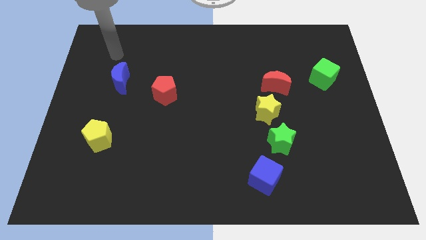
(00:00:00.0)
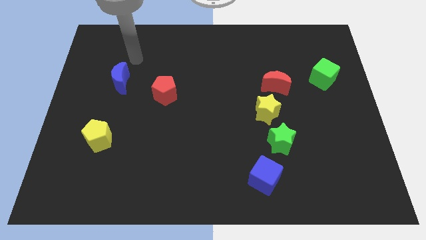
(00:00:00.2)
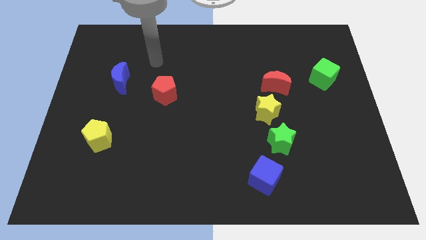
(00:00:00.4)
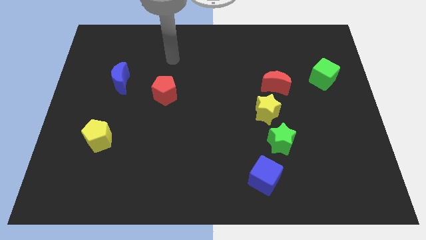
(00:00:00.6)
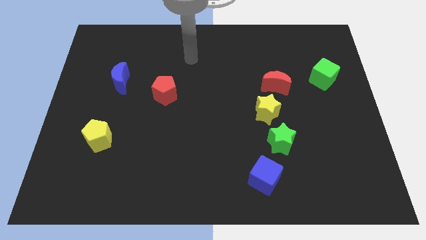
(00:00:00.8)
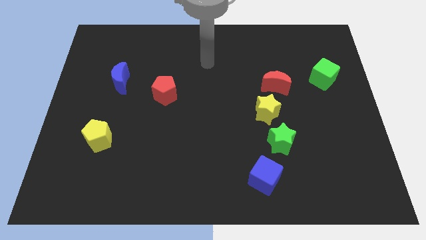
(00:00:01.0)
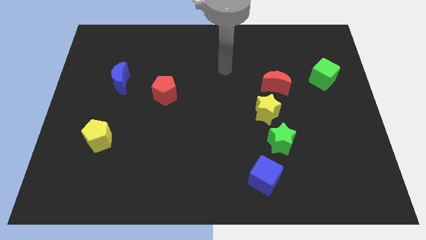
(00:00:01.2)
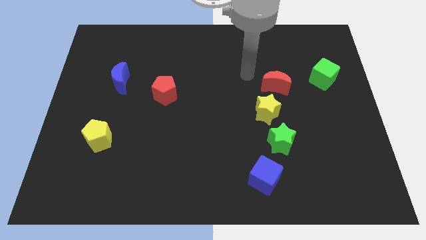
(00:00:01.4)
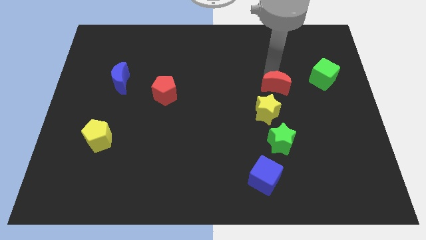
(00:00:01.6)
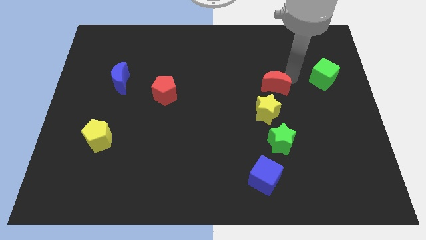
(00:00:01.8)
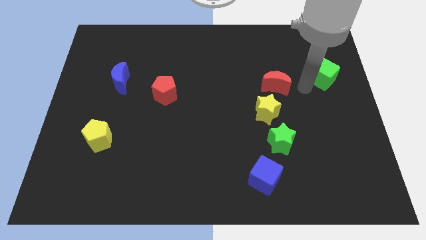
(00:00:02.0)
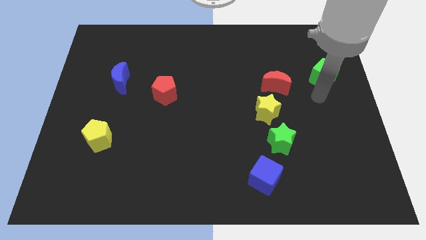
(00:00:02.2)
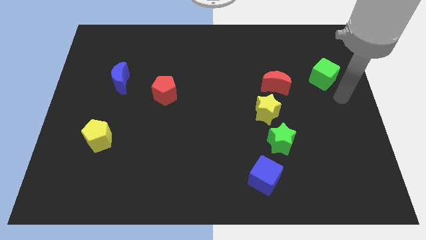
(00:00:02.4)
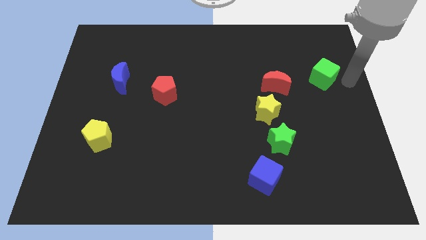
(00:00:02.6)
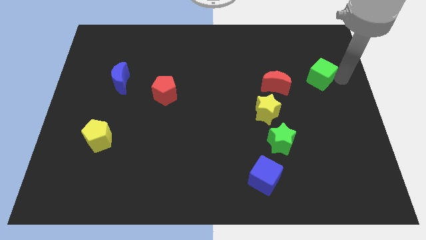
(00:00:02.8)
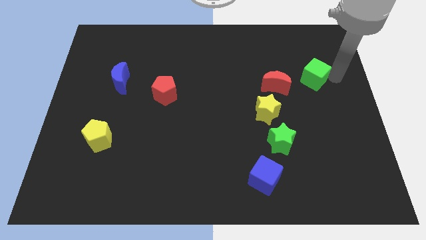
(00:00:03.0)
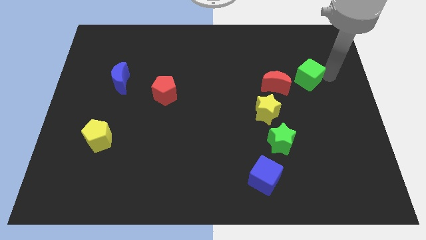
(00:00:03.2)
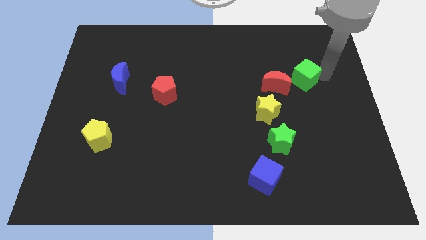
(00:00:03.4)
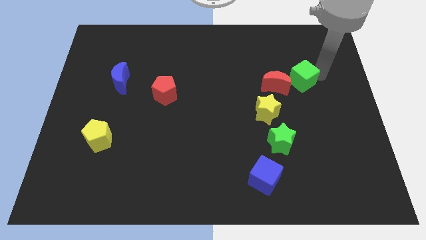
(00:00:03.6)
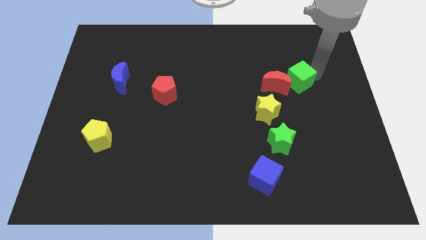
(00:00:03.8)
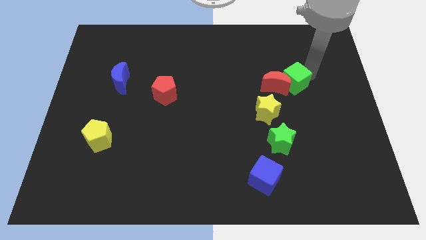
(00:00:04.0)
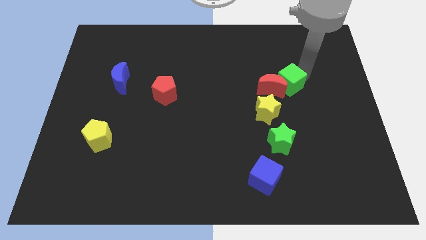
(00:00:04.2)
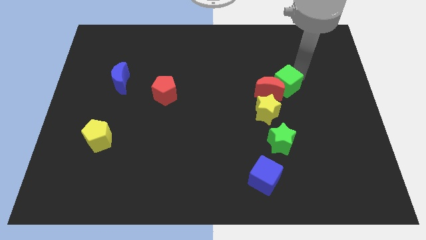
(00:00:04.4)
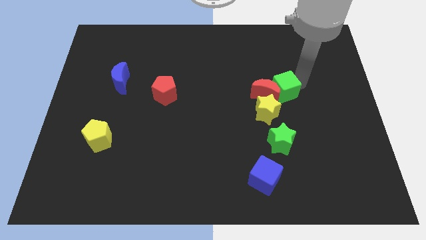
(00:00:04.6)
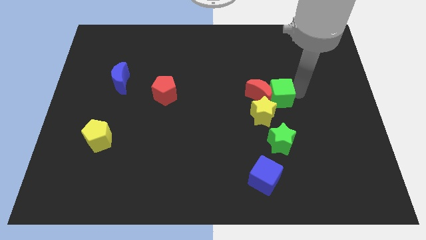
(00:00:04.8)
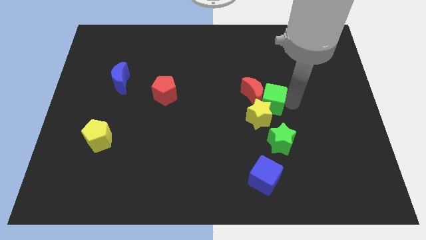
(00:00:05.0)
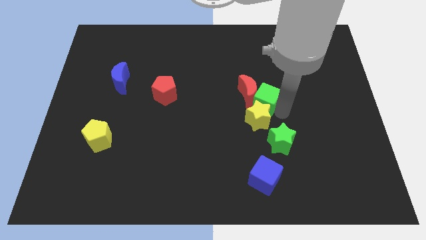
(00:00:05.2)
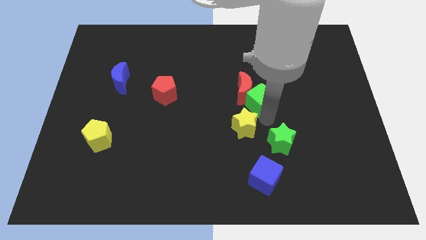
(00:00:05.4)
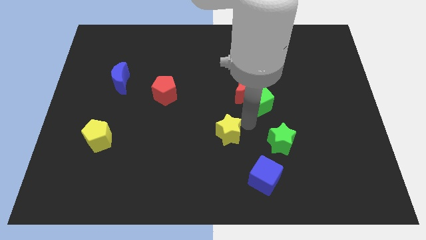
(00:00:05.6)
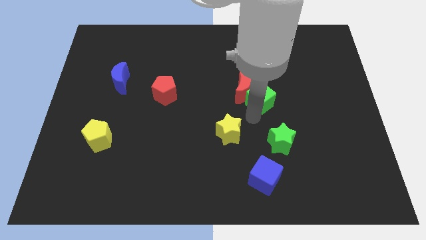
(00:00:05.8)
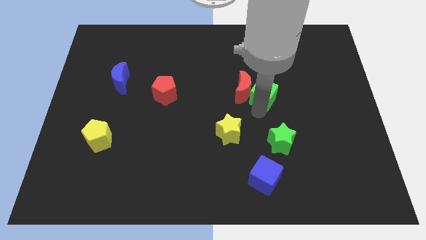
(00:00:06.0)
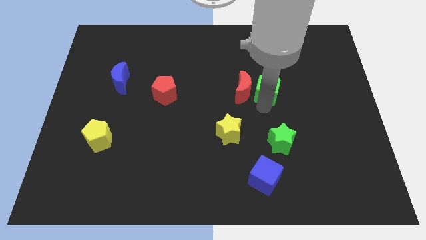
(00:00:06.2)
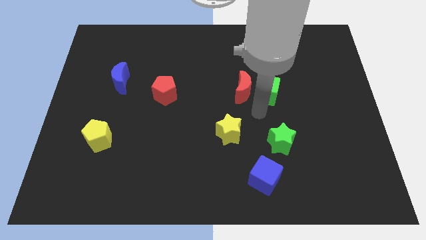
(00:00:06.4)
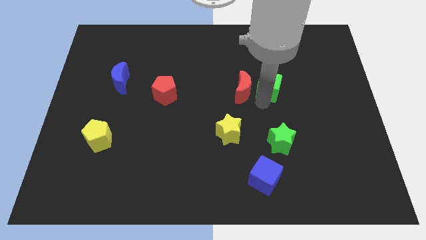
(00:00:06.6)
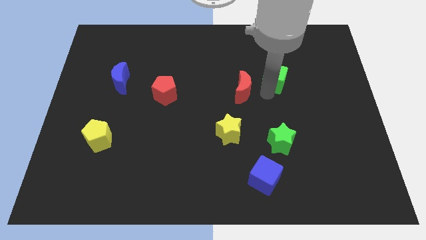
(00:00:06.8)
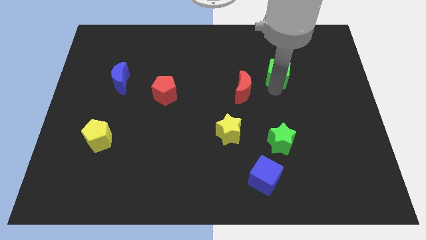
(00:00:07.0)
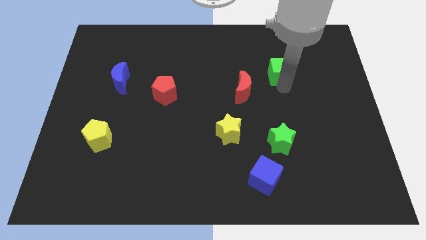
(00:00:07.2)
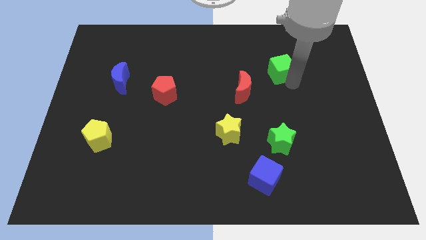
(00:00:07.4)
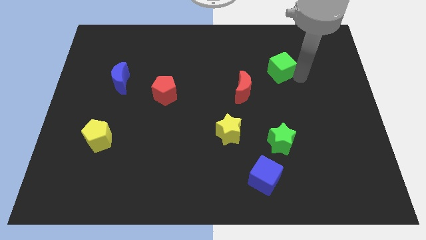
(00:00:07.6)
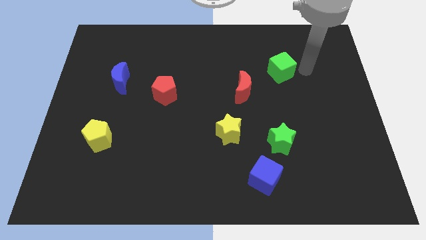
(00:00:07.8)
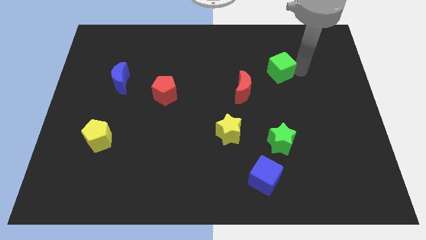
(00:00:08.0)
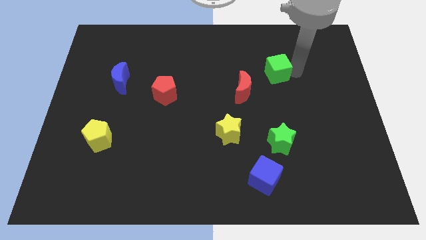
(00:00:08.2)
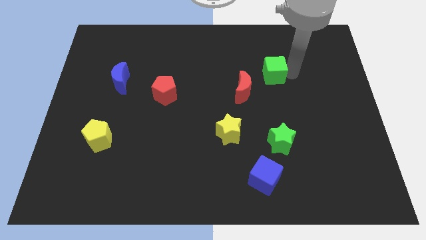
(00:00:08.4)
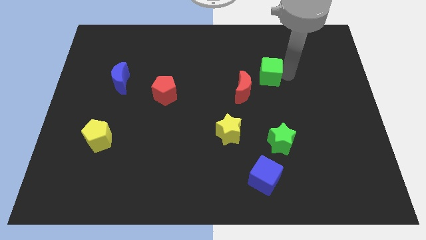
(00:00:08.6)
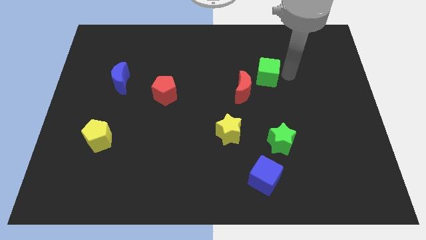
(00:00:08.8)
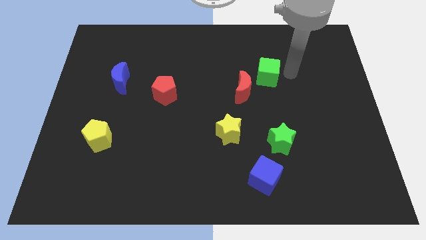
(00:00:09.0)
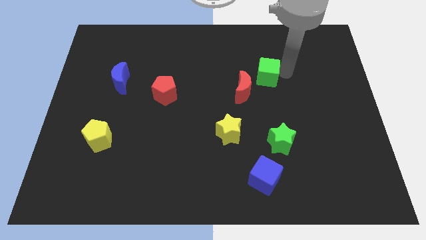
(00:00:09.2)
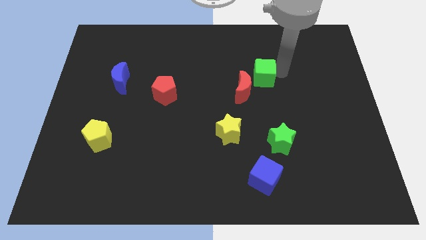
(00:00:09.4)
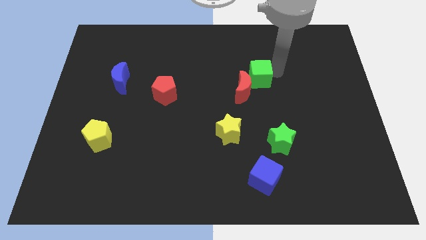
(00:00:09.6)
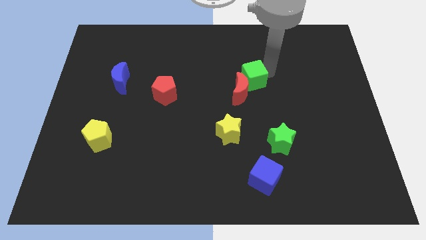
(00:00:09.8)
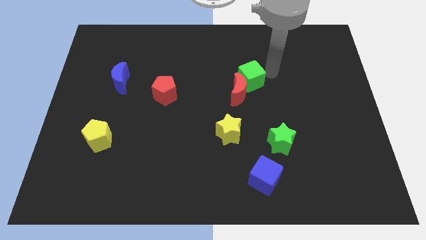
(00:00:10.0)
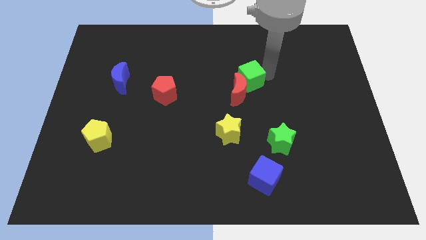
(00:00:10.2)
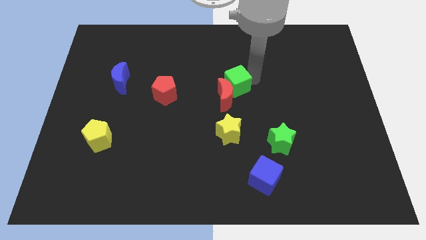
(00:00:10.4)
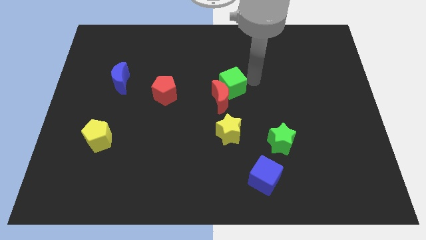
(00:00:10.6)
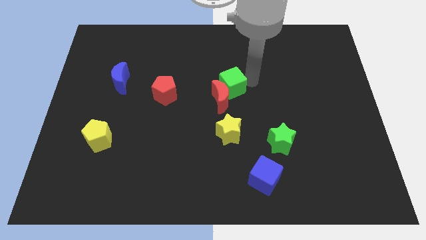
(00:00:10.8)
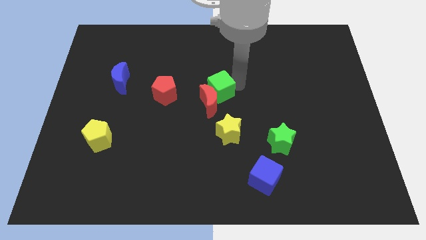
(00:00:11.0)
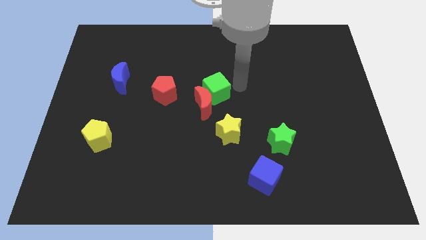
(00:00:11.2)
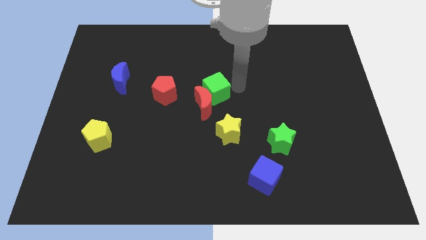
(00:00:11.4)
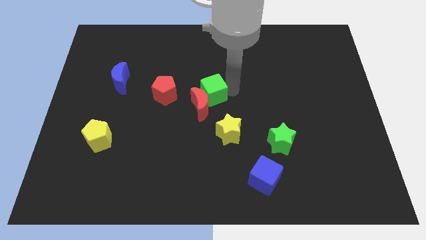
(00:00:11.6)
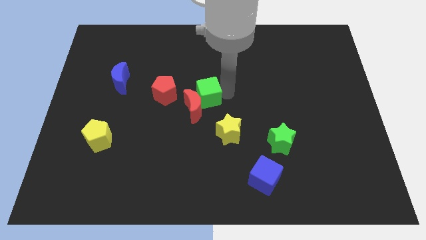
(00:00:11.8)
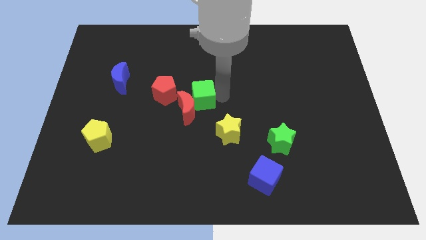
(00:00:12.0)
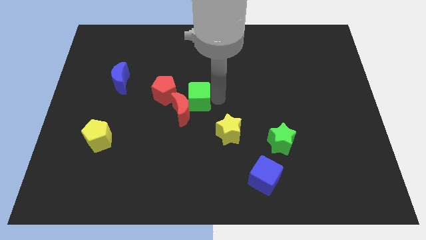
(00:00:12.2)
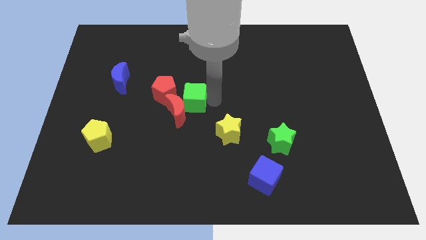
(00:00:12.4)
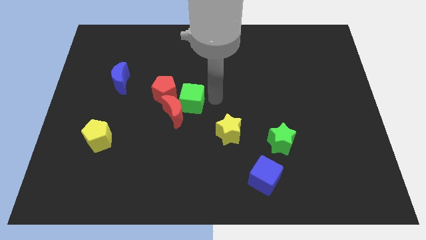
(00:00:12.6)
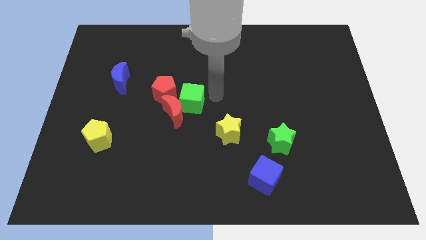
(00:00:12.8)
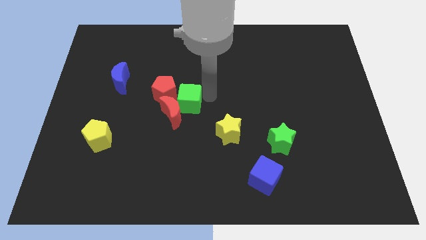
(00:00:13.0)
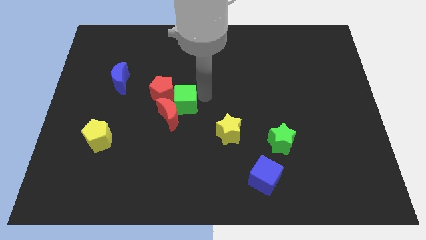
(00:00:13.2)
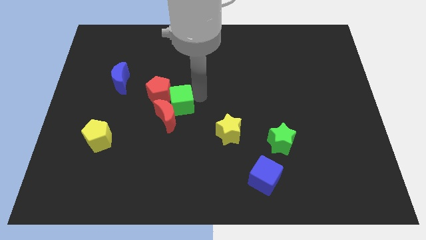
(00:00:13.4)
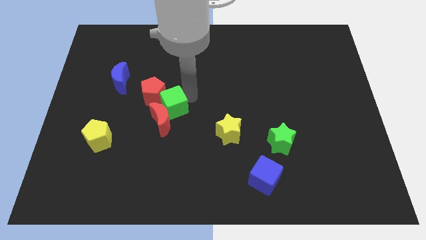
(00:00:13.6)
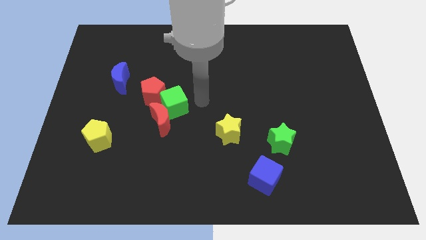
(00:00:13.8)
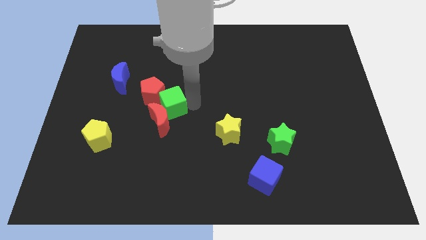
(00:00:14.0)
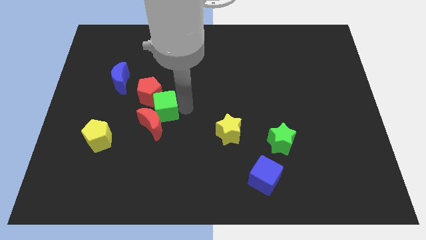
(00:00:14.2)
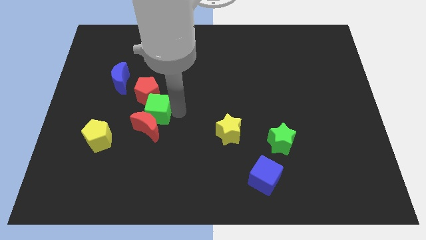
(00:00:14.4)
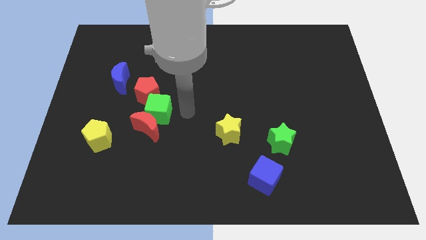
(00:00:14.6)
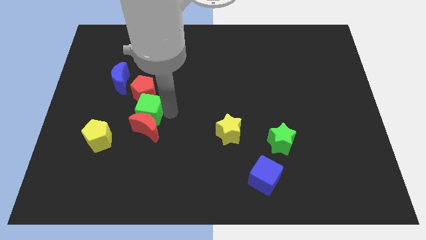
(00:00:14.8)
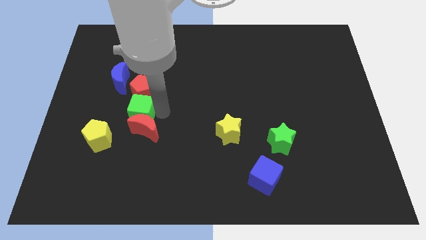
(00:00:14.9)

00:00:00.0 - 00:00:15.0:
push the green cube to the bottom left side of the red pentagon
